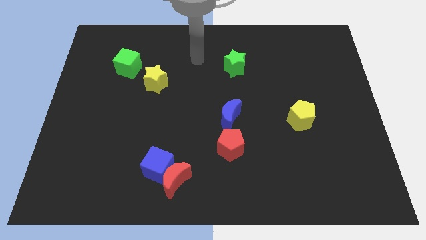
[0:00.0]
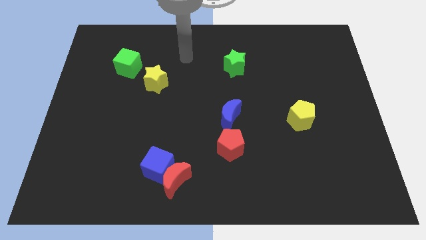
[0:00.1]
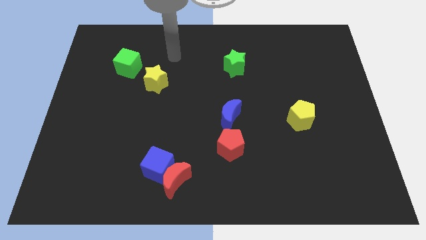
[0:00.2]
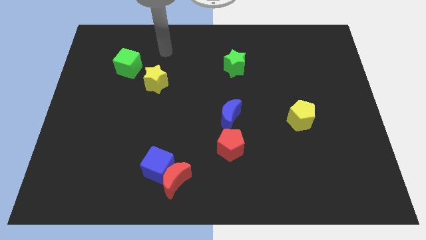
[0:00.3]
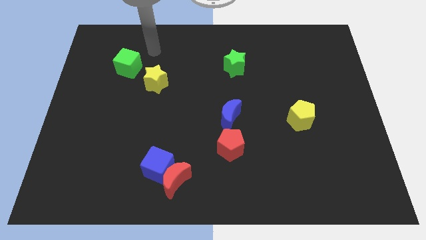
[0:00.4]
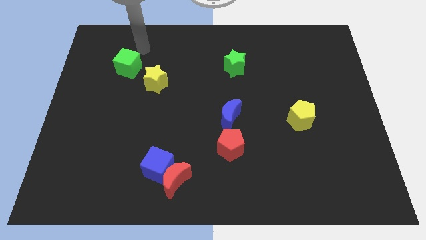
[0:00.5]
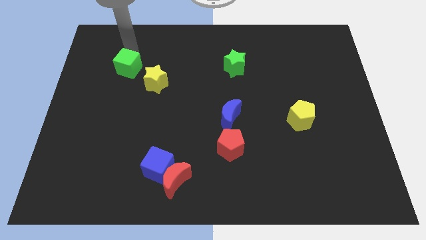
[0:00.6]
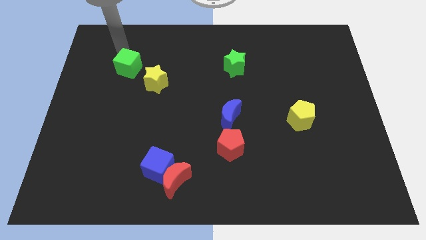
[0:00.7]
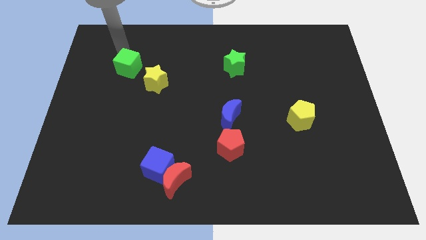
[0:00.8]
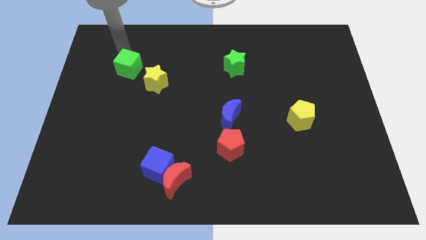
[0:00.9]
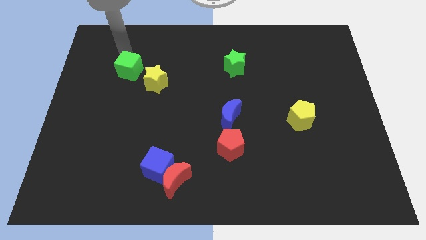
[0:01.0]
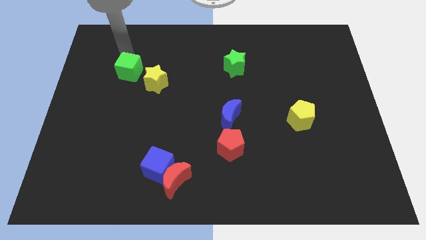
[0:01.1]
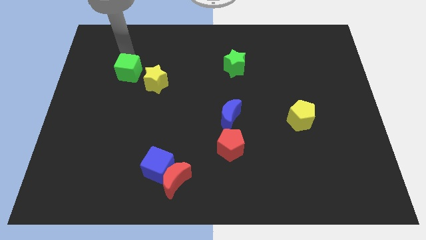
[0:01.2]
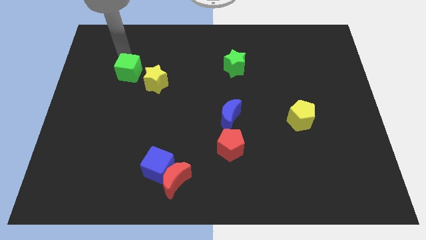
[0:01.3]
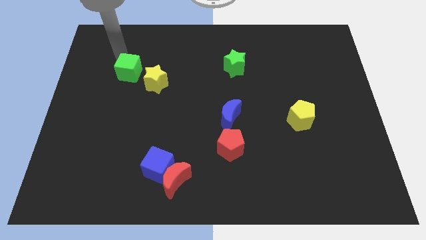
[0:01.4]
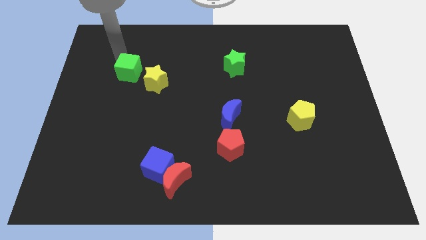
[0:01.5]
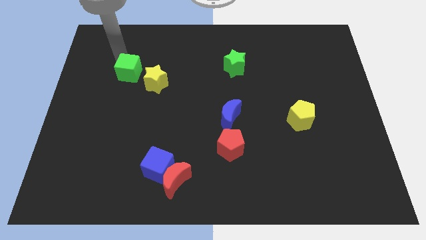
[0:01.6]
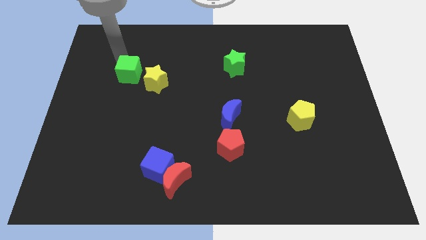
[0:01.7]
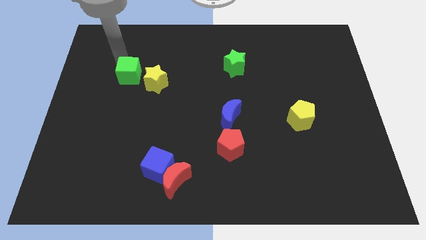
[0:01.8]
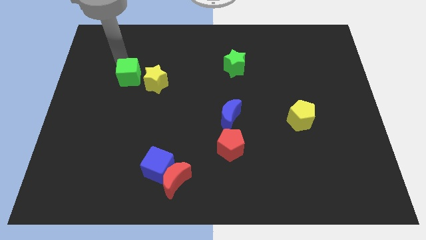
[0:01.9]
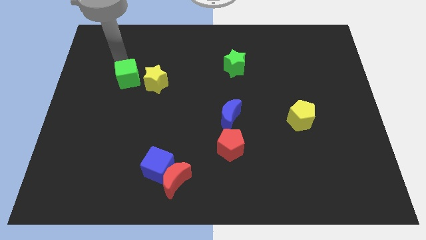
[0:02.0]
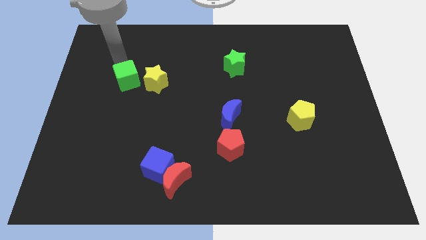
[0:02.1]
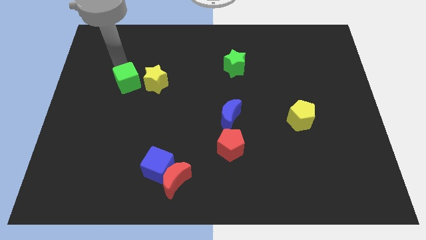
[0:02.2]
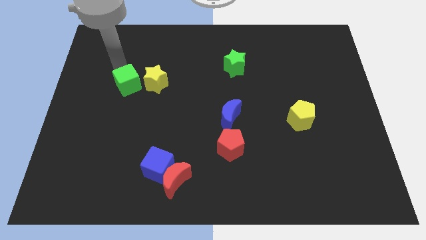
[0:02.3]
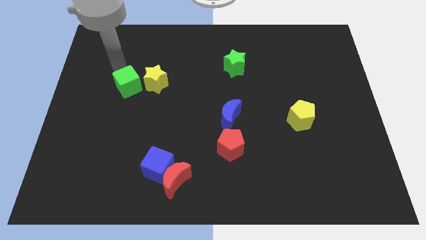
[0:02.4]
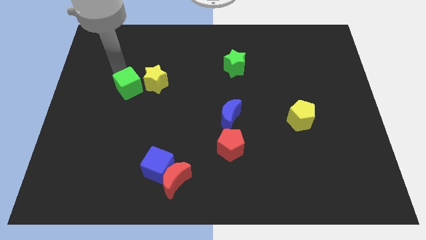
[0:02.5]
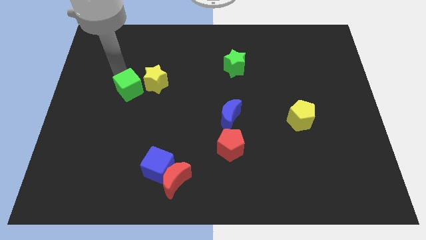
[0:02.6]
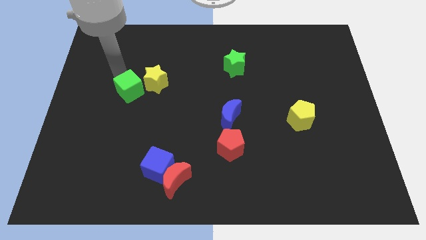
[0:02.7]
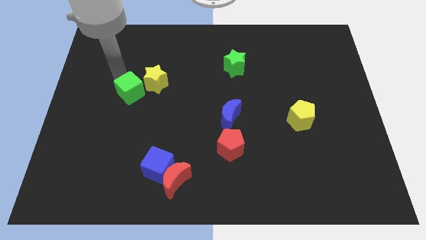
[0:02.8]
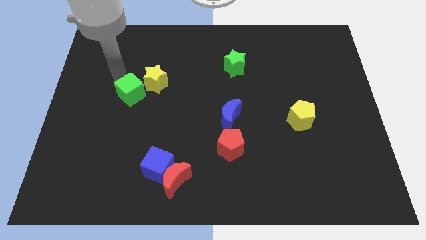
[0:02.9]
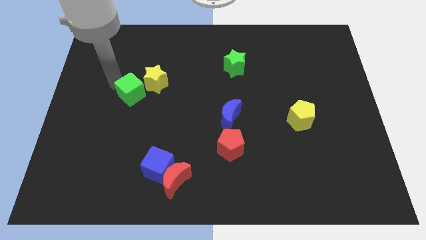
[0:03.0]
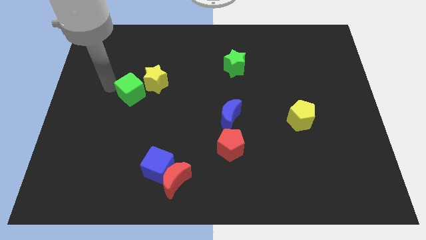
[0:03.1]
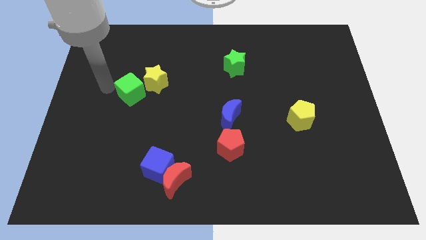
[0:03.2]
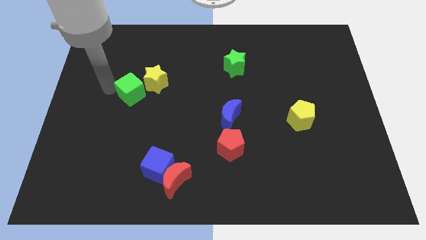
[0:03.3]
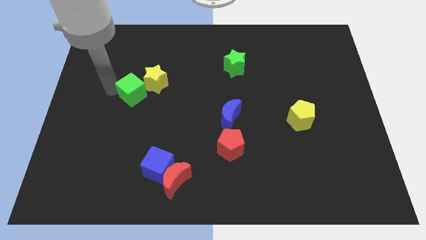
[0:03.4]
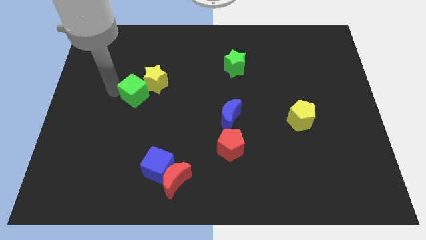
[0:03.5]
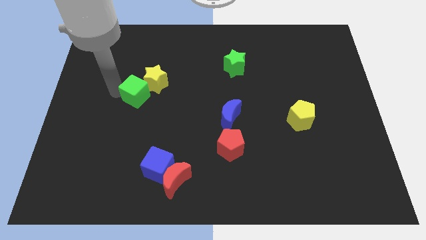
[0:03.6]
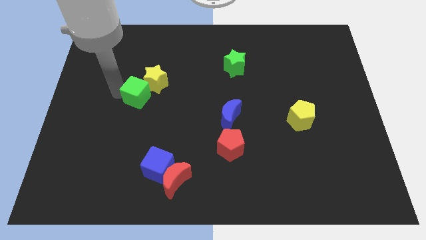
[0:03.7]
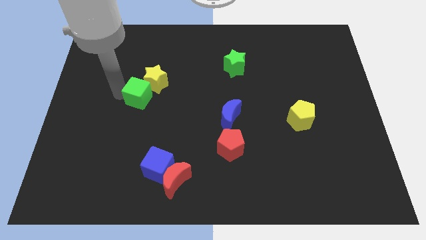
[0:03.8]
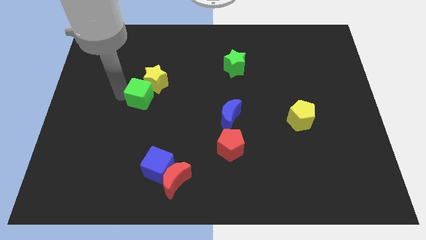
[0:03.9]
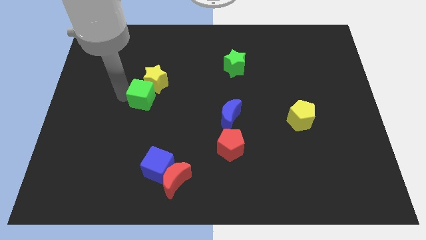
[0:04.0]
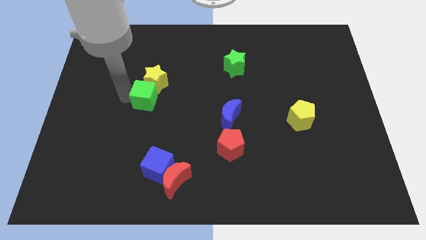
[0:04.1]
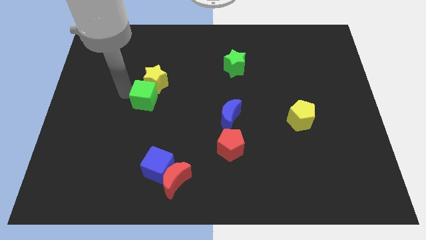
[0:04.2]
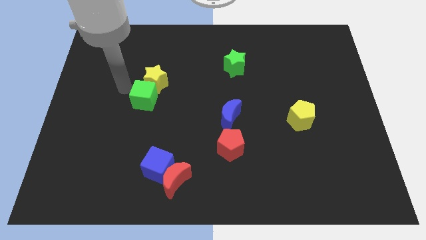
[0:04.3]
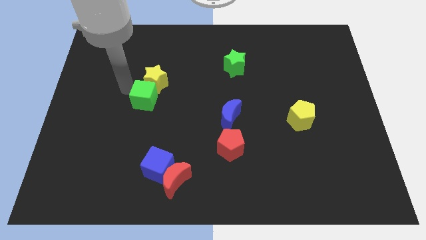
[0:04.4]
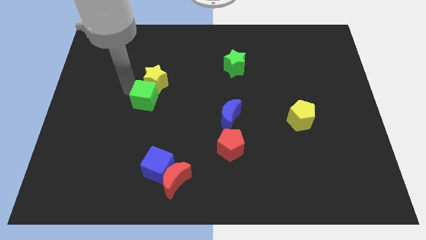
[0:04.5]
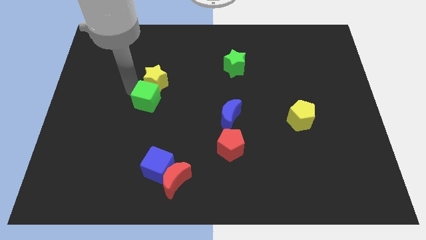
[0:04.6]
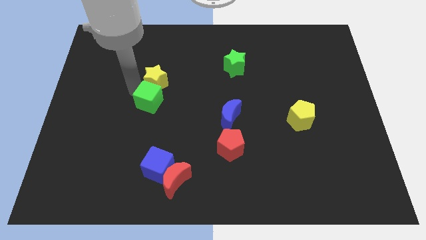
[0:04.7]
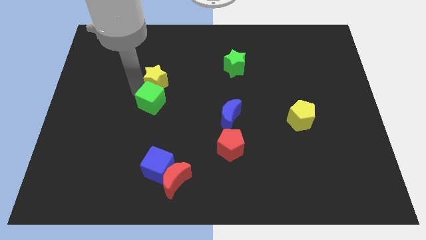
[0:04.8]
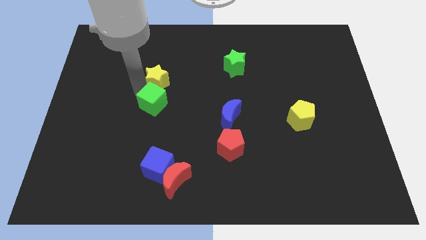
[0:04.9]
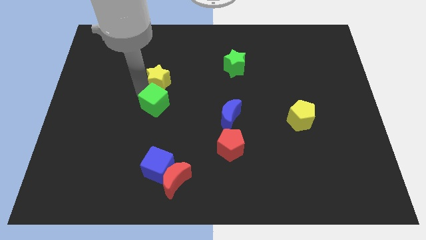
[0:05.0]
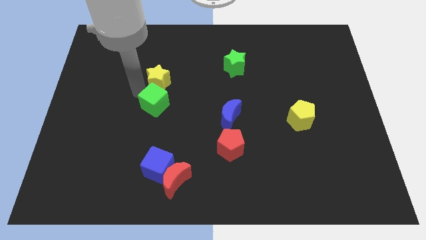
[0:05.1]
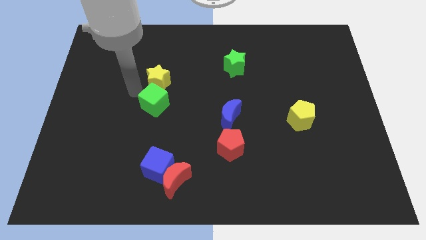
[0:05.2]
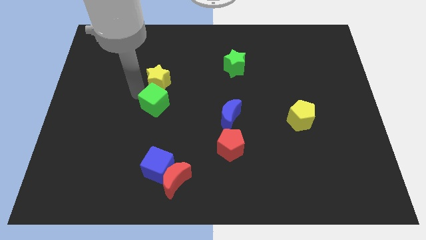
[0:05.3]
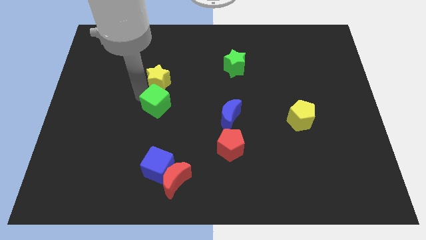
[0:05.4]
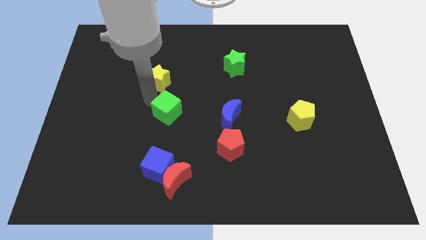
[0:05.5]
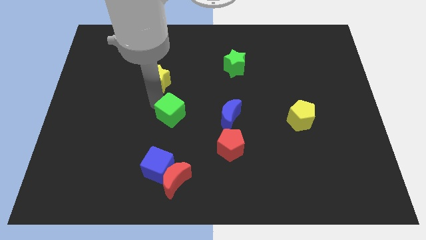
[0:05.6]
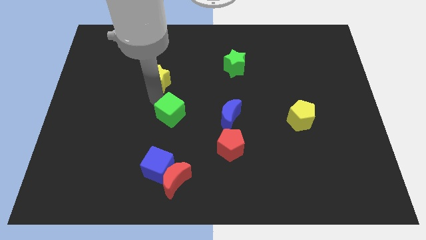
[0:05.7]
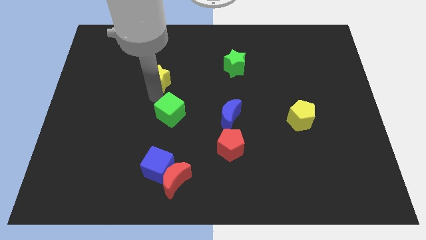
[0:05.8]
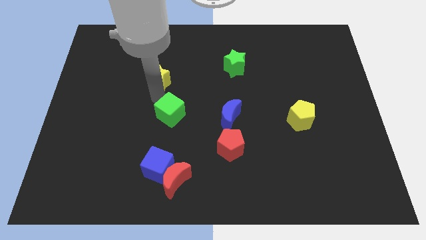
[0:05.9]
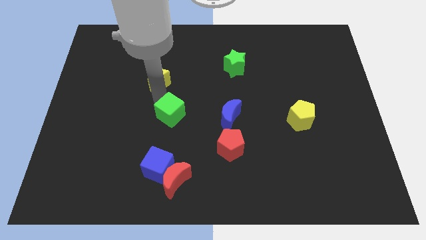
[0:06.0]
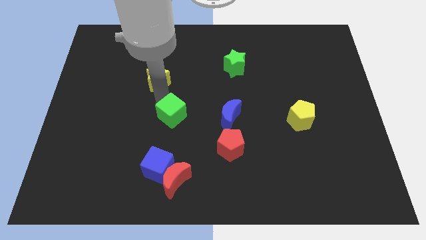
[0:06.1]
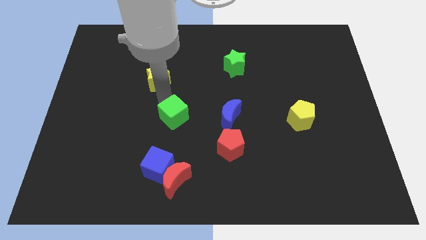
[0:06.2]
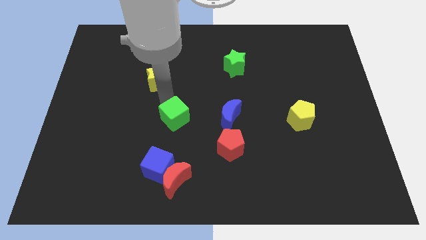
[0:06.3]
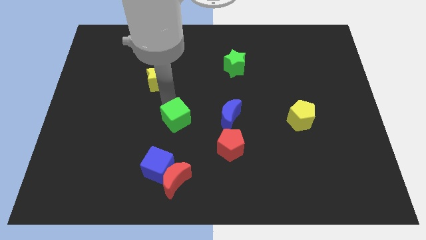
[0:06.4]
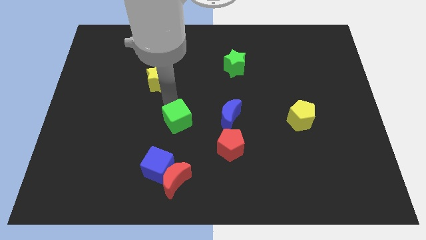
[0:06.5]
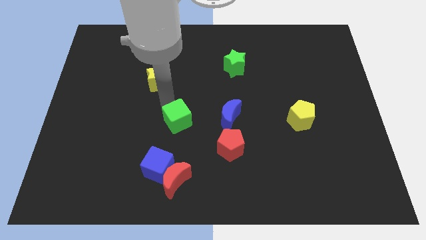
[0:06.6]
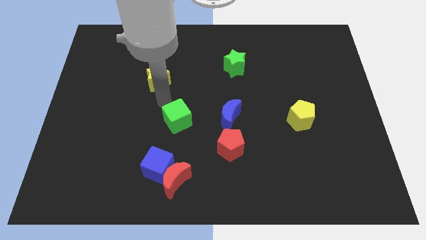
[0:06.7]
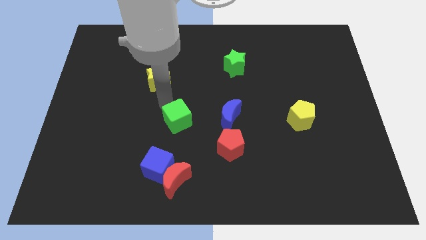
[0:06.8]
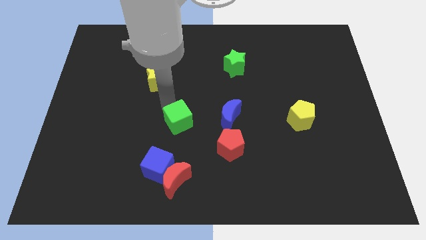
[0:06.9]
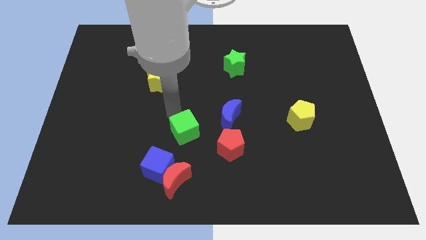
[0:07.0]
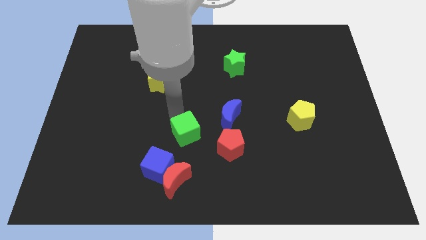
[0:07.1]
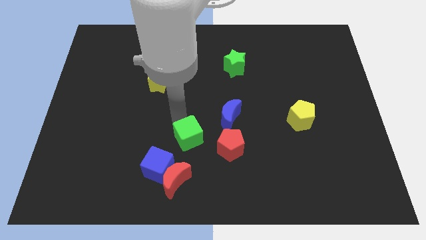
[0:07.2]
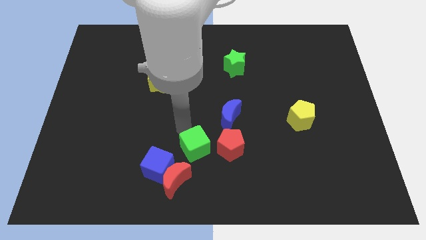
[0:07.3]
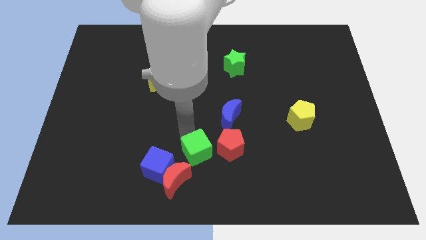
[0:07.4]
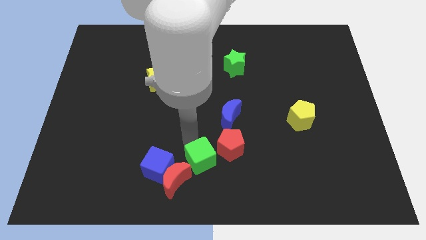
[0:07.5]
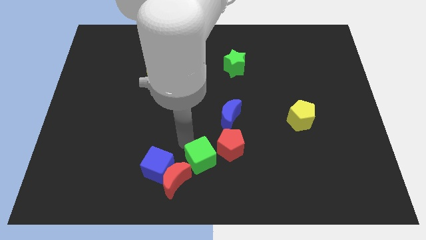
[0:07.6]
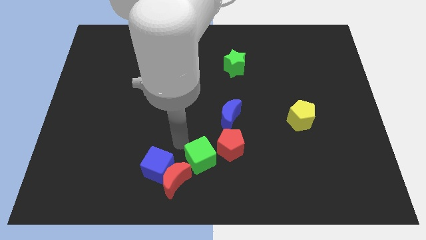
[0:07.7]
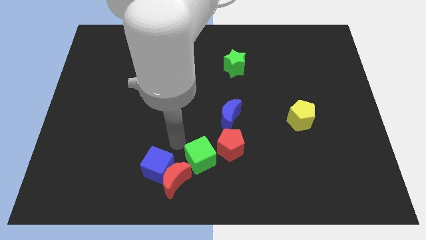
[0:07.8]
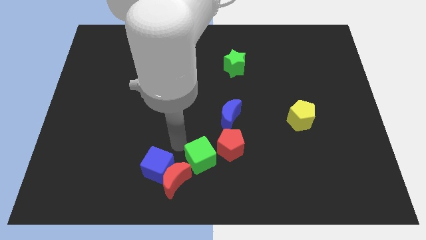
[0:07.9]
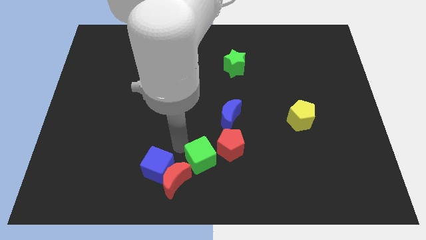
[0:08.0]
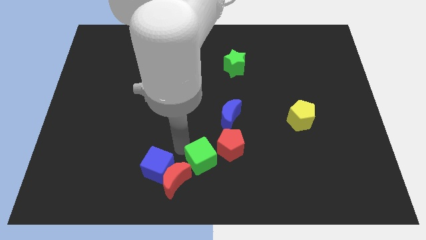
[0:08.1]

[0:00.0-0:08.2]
move the green cube to the right side of the red moon
